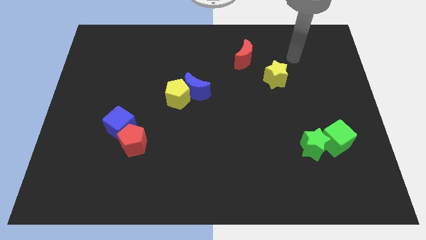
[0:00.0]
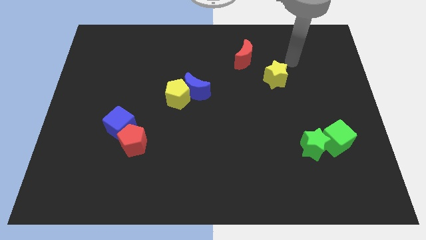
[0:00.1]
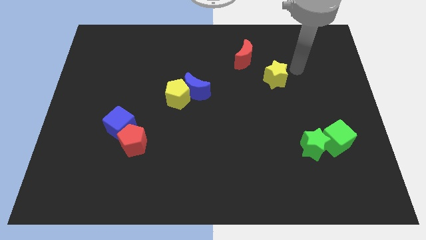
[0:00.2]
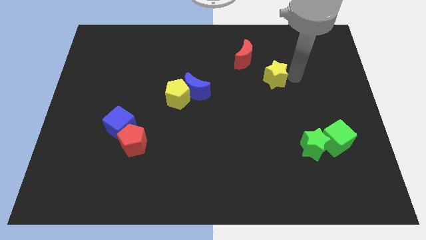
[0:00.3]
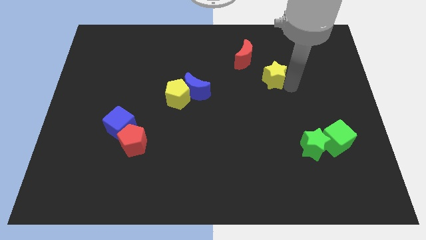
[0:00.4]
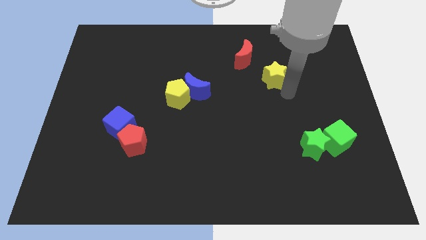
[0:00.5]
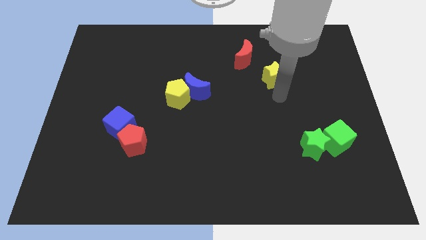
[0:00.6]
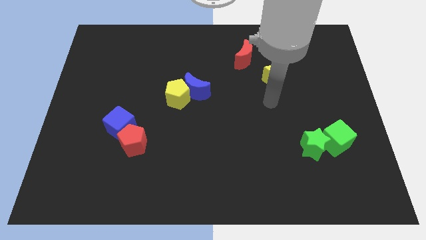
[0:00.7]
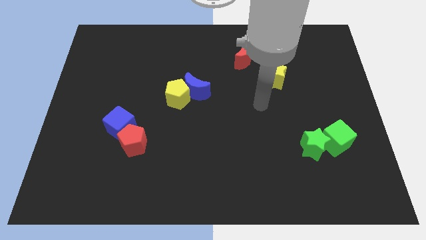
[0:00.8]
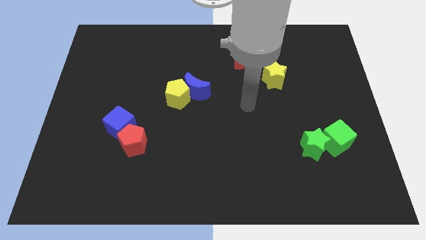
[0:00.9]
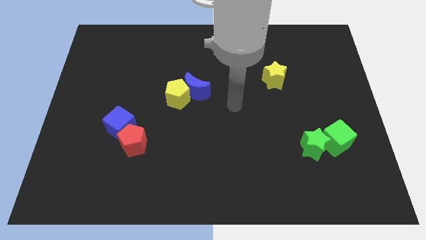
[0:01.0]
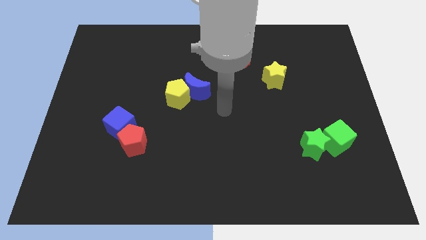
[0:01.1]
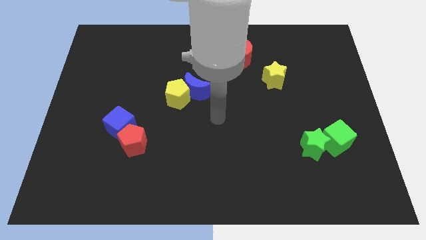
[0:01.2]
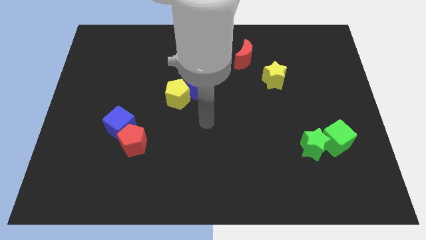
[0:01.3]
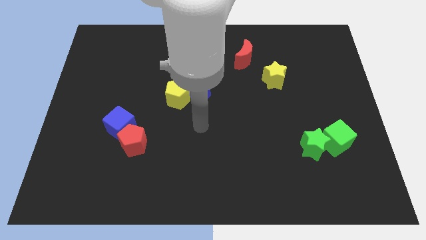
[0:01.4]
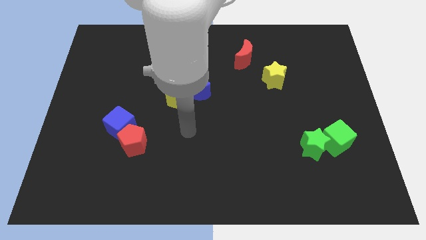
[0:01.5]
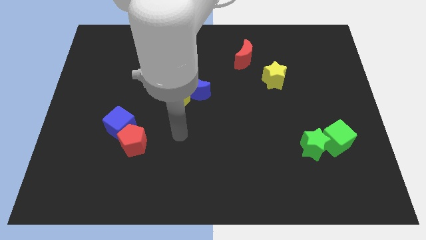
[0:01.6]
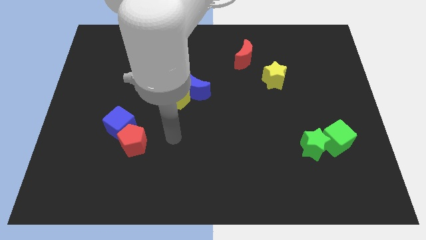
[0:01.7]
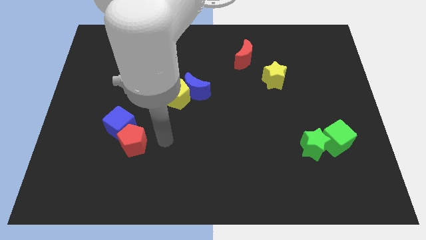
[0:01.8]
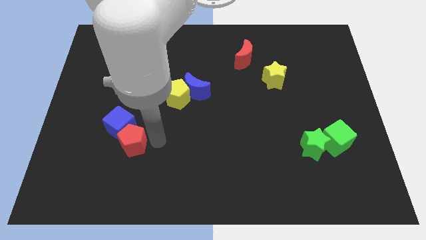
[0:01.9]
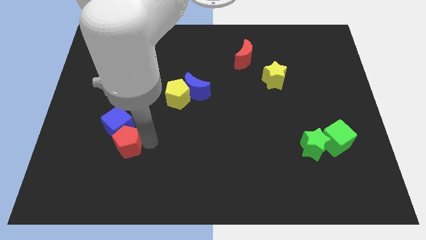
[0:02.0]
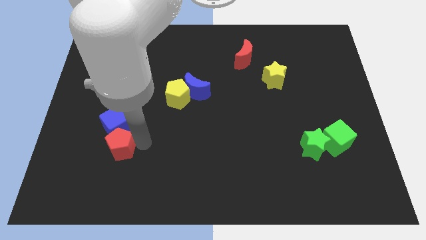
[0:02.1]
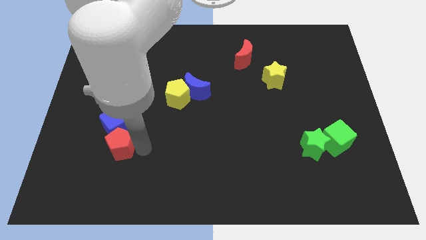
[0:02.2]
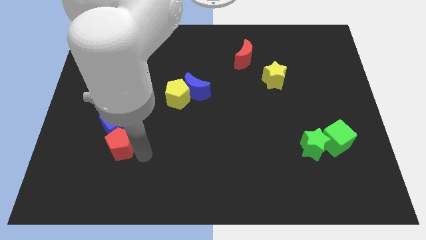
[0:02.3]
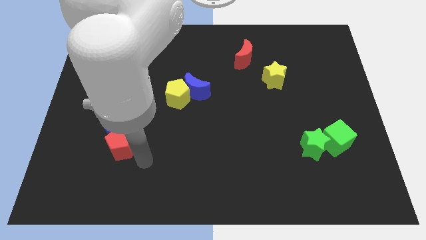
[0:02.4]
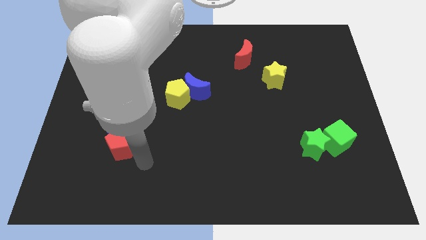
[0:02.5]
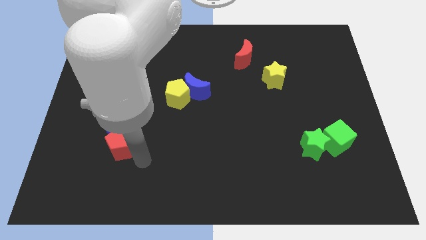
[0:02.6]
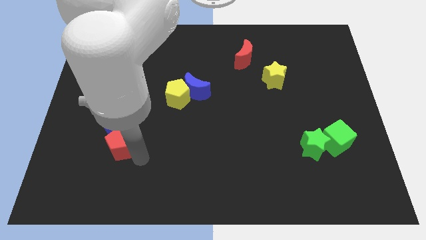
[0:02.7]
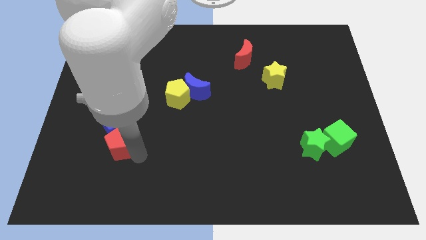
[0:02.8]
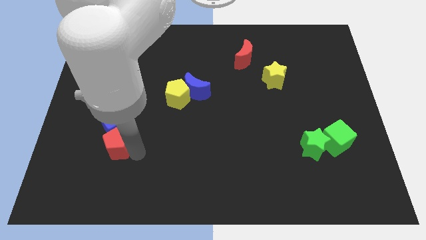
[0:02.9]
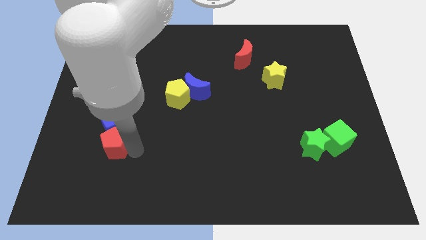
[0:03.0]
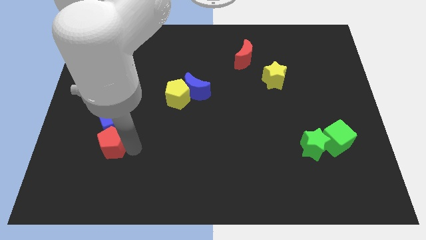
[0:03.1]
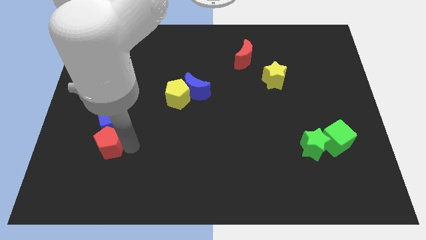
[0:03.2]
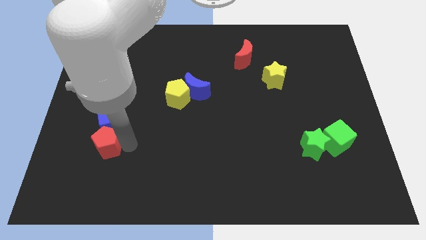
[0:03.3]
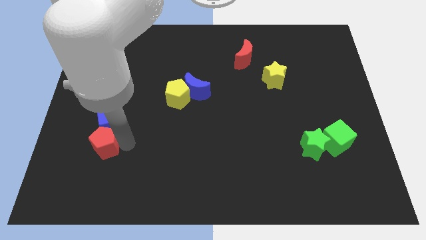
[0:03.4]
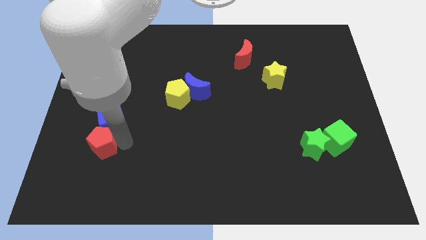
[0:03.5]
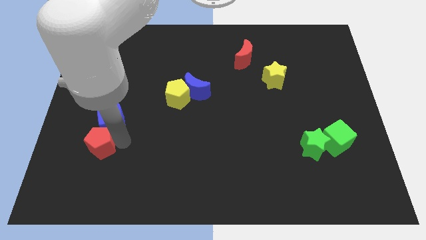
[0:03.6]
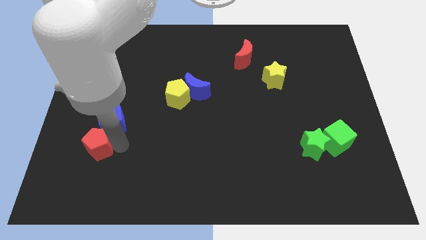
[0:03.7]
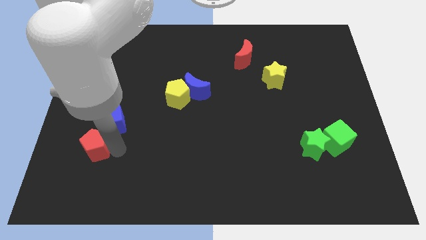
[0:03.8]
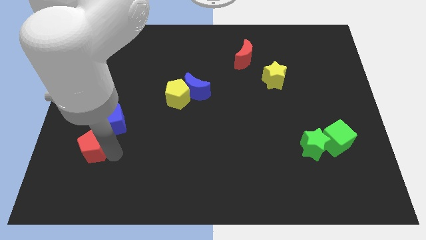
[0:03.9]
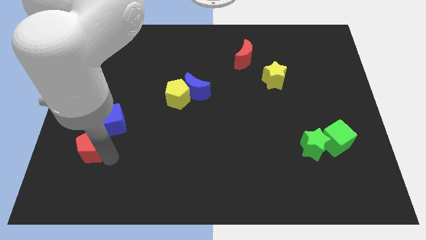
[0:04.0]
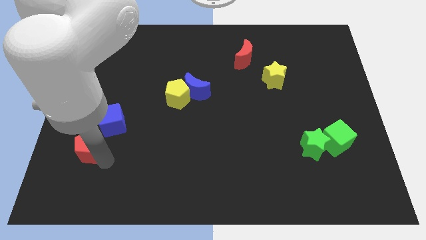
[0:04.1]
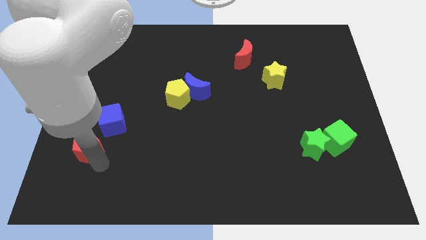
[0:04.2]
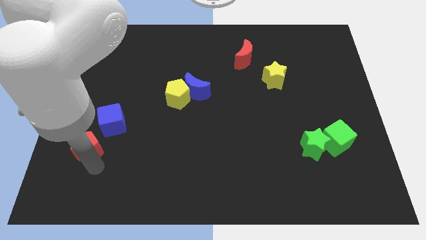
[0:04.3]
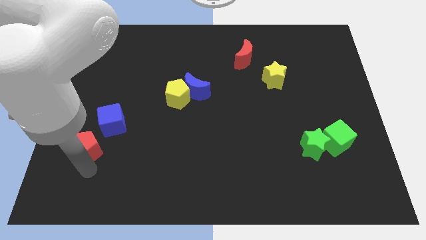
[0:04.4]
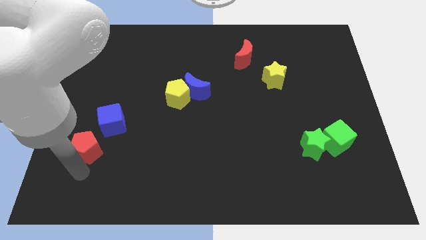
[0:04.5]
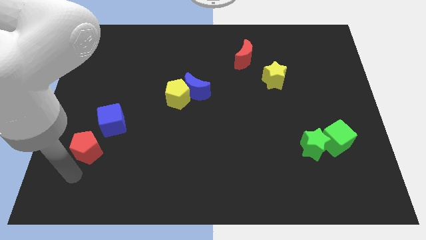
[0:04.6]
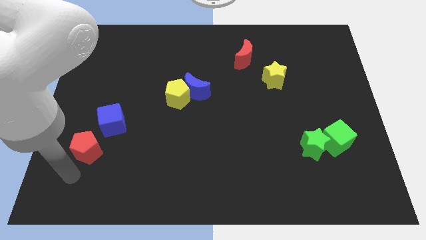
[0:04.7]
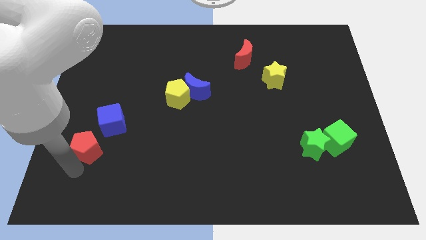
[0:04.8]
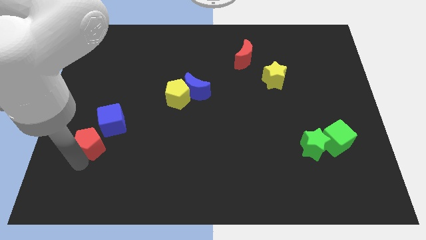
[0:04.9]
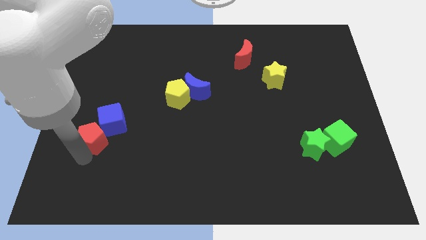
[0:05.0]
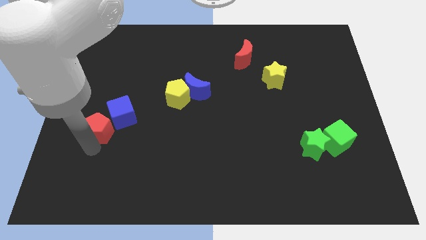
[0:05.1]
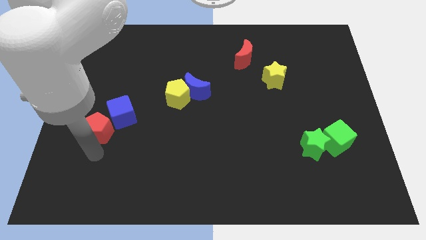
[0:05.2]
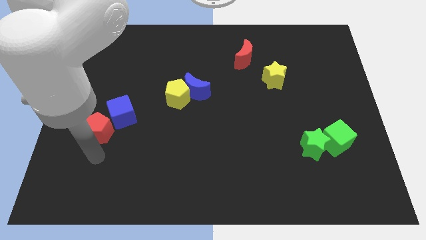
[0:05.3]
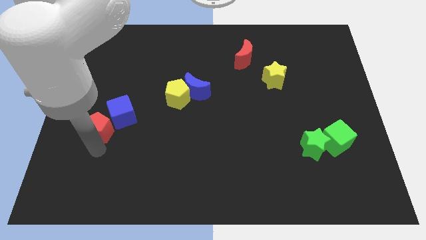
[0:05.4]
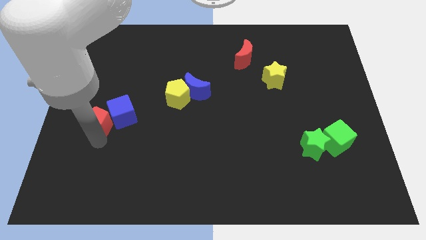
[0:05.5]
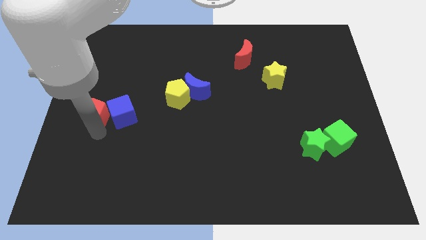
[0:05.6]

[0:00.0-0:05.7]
move the red pentagon diagonally up and to the left of the blue cube

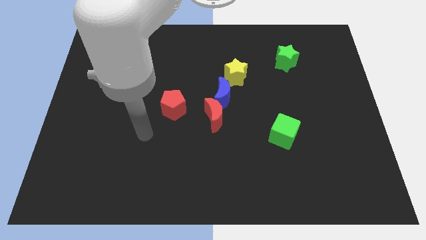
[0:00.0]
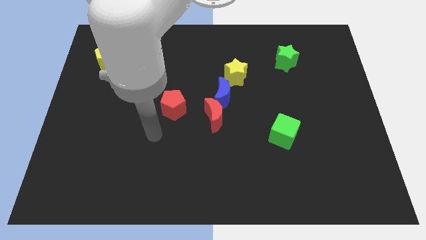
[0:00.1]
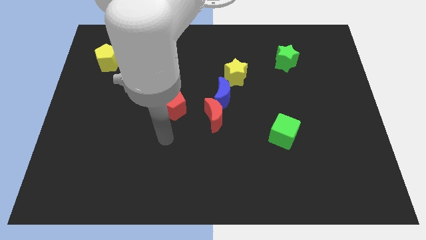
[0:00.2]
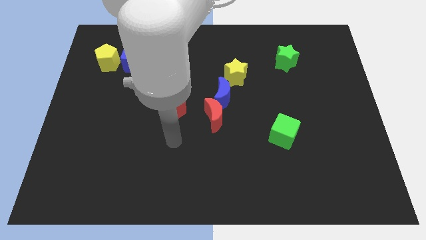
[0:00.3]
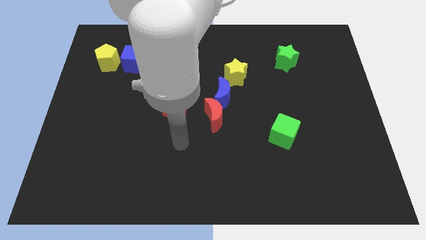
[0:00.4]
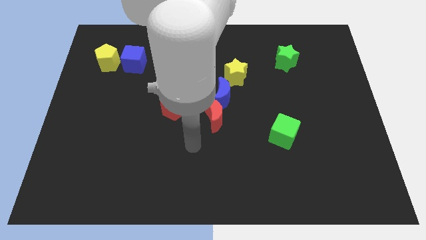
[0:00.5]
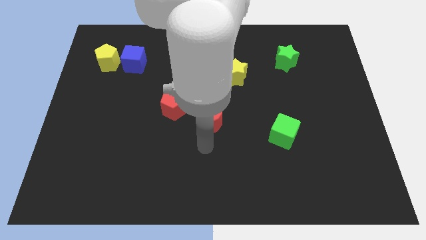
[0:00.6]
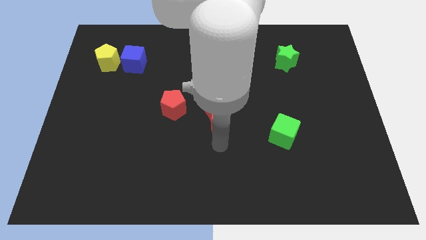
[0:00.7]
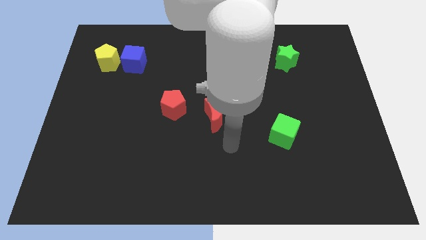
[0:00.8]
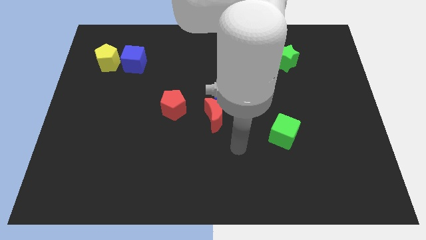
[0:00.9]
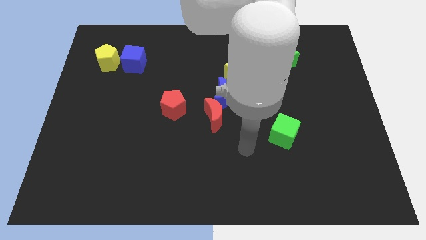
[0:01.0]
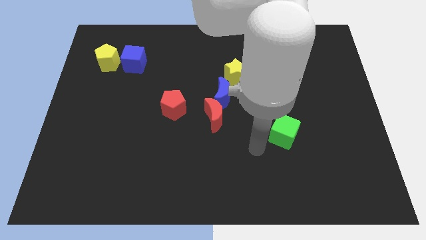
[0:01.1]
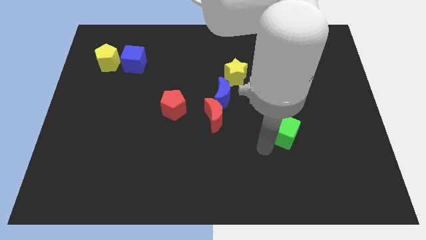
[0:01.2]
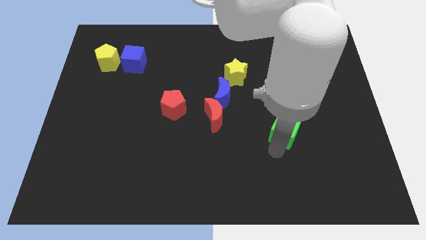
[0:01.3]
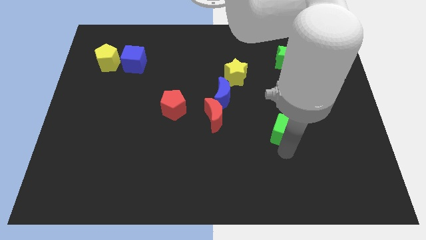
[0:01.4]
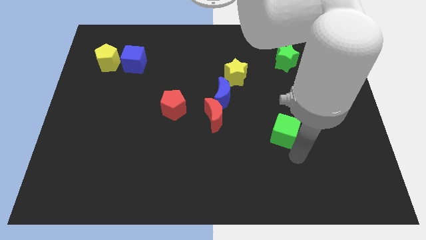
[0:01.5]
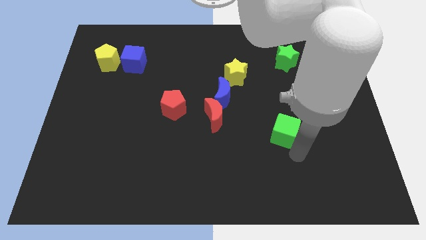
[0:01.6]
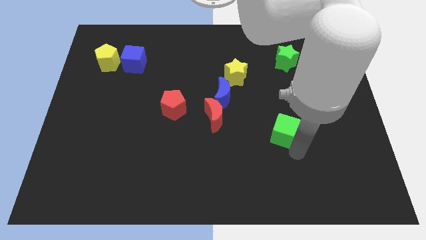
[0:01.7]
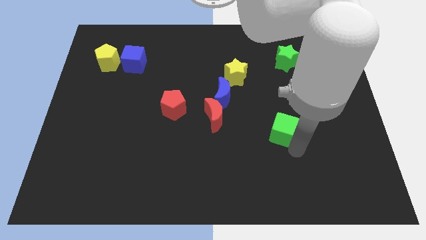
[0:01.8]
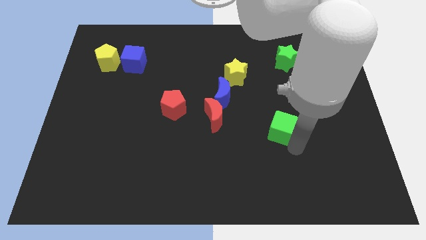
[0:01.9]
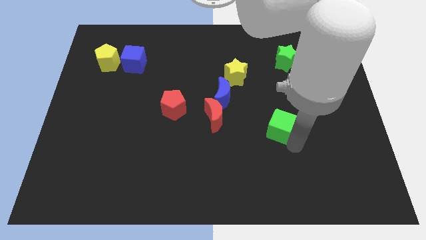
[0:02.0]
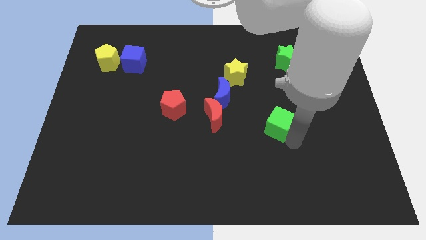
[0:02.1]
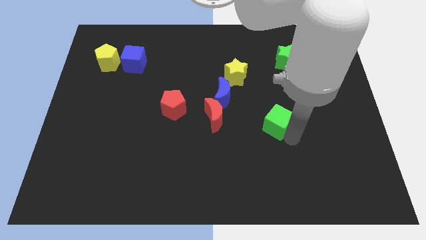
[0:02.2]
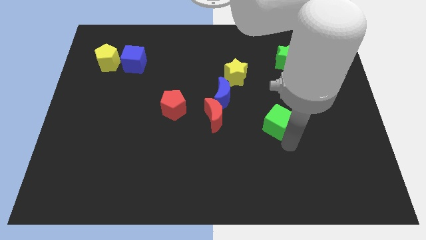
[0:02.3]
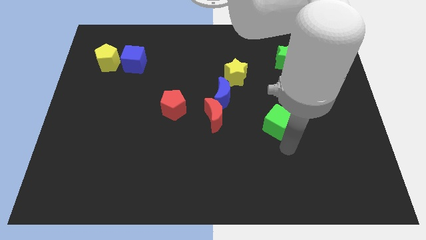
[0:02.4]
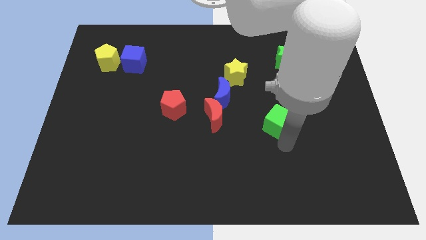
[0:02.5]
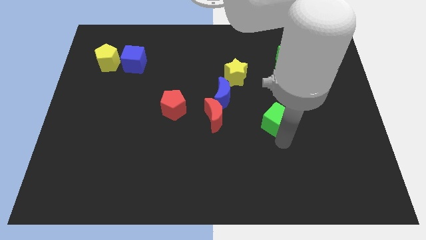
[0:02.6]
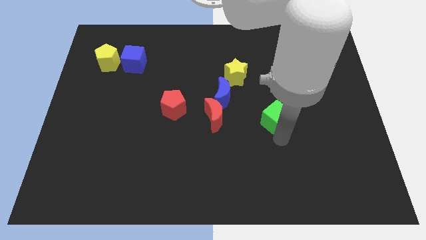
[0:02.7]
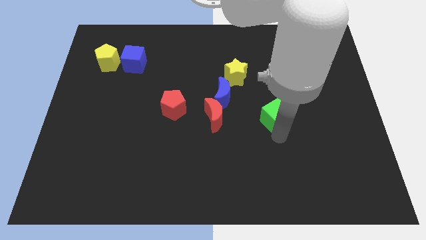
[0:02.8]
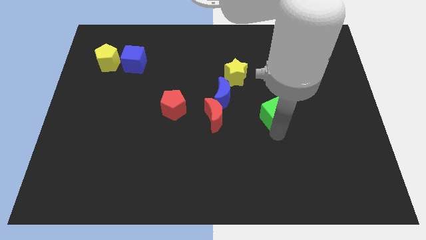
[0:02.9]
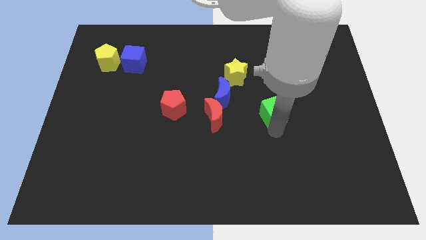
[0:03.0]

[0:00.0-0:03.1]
move the green cube right of the blue moon
